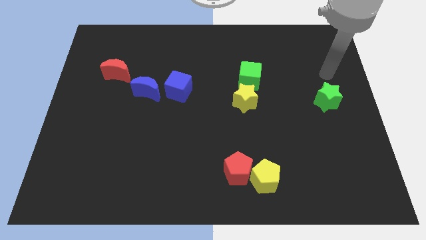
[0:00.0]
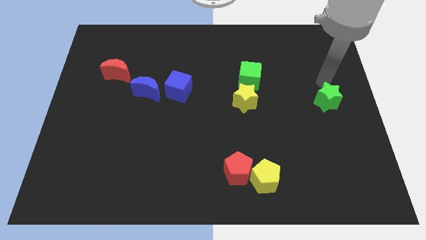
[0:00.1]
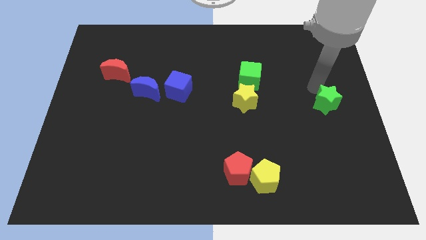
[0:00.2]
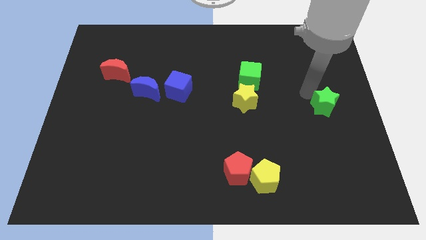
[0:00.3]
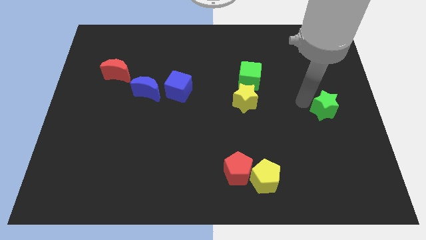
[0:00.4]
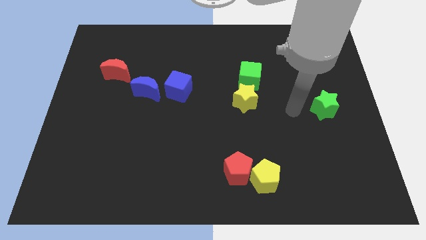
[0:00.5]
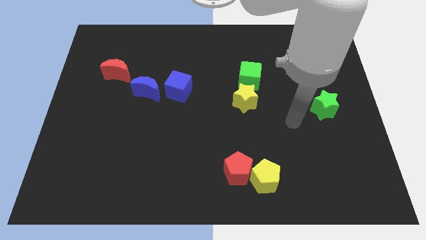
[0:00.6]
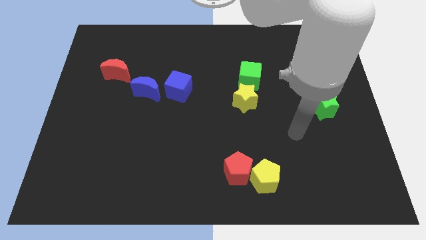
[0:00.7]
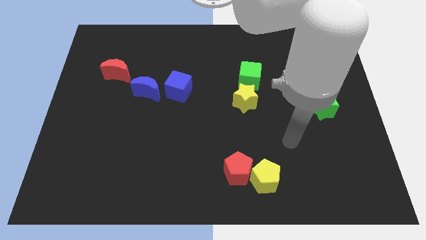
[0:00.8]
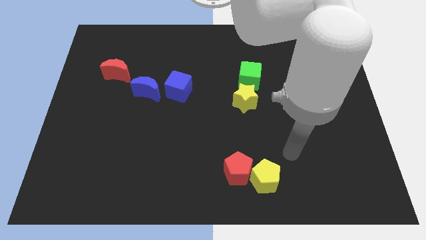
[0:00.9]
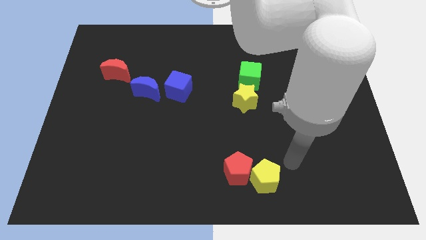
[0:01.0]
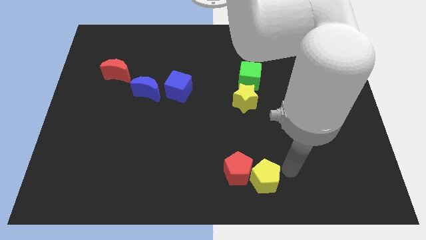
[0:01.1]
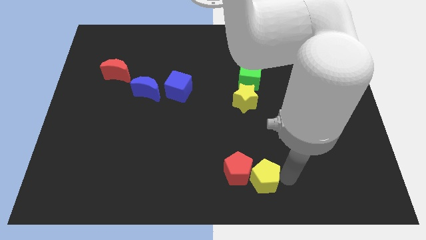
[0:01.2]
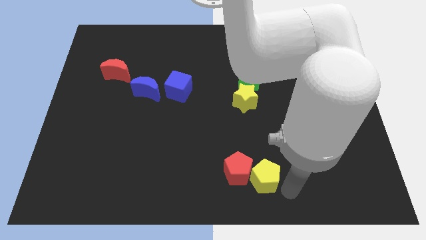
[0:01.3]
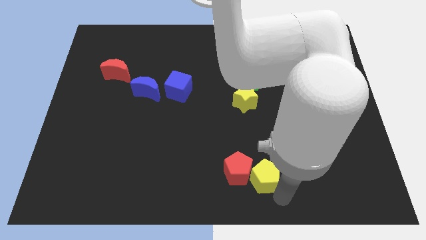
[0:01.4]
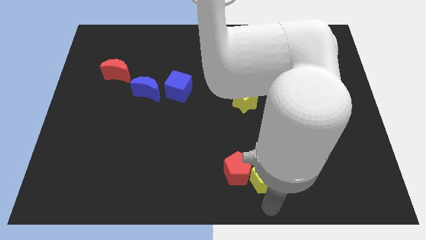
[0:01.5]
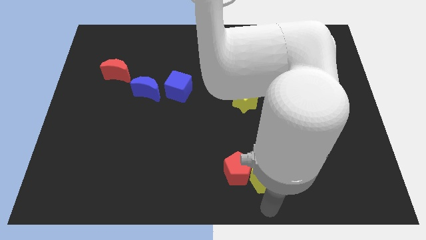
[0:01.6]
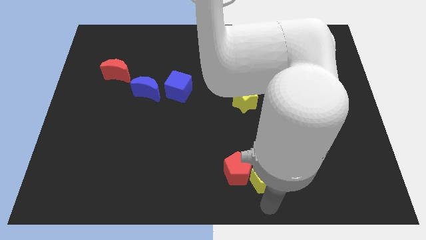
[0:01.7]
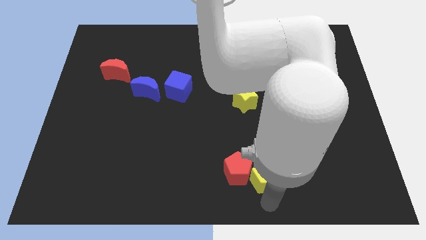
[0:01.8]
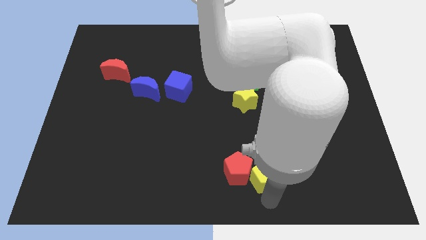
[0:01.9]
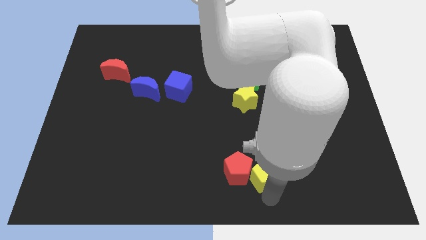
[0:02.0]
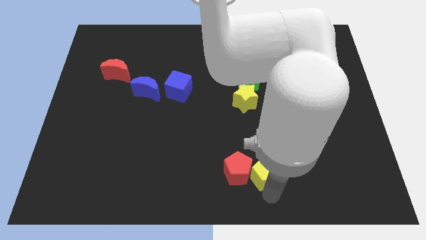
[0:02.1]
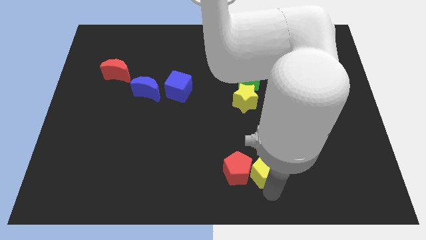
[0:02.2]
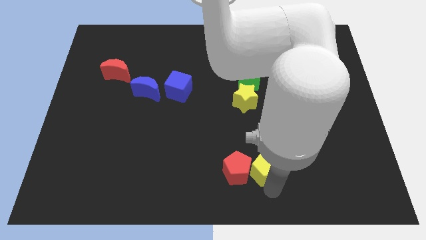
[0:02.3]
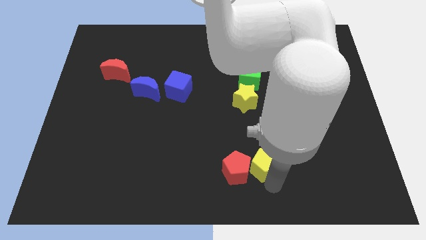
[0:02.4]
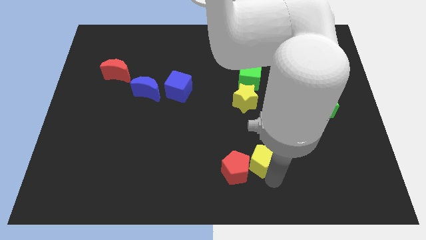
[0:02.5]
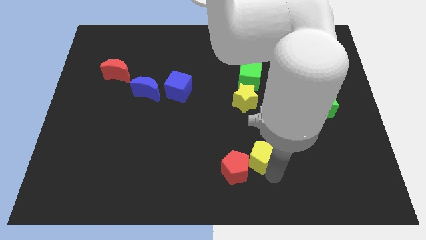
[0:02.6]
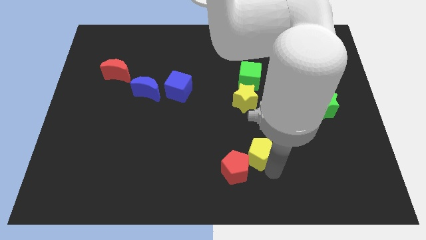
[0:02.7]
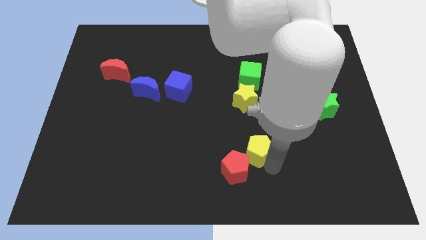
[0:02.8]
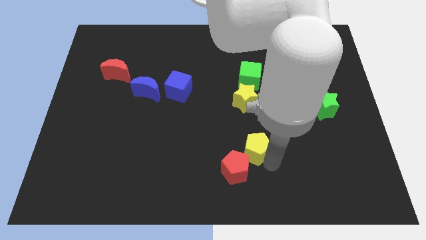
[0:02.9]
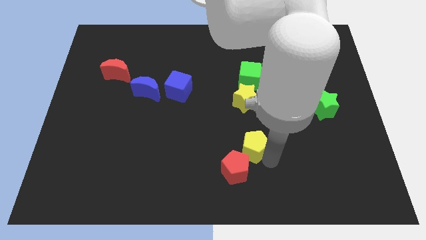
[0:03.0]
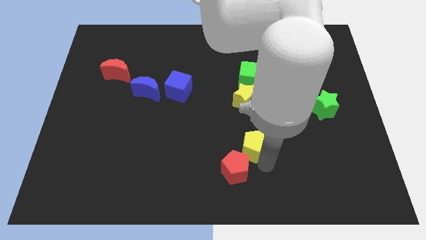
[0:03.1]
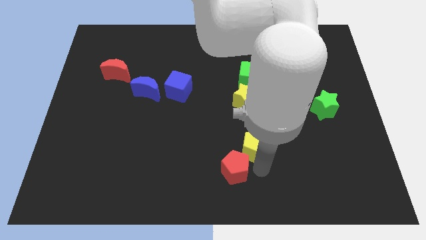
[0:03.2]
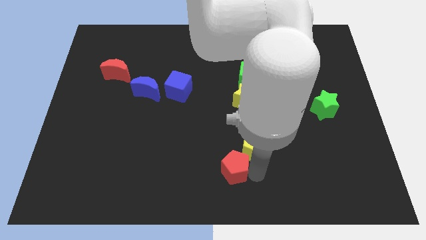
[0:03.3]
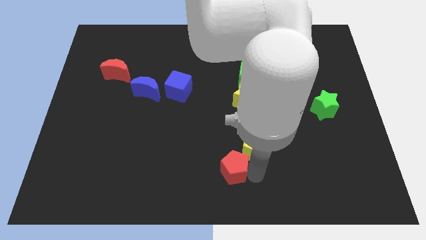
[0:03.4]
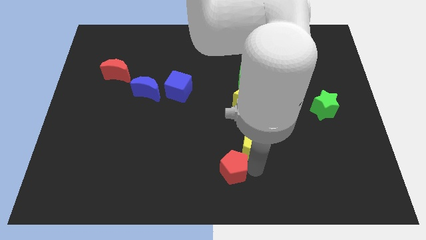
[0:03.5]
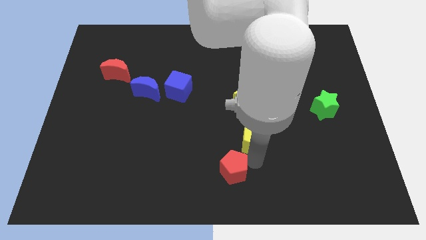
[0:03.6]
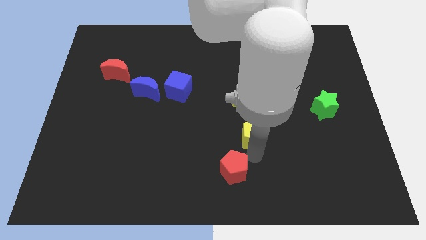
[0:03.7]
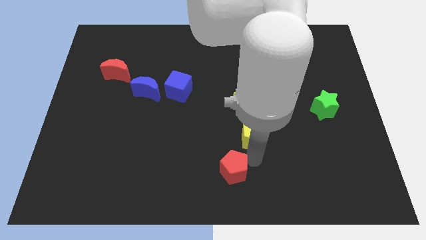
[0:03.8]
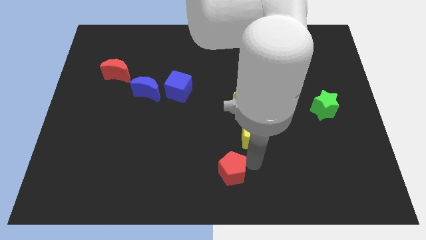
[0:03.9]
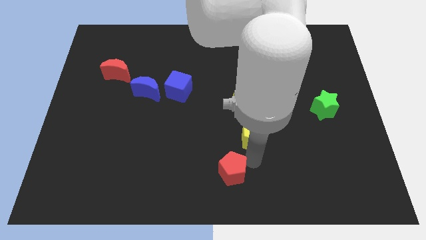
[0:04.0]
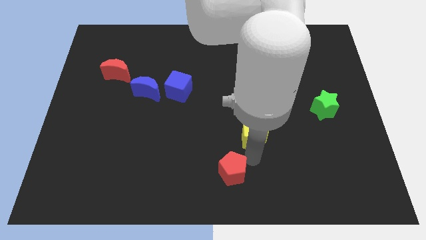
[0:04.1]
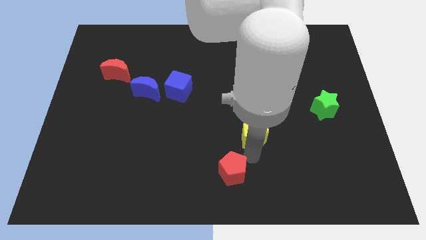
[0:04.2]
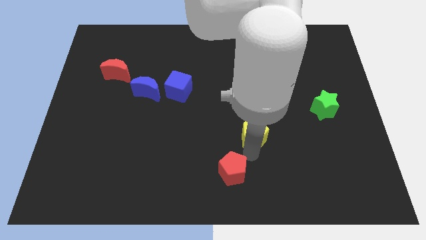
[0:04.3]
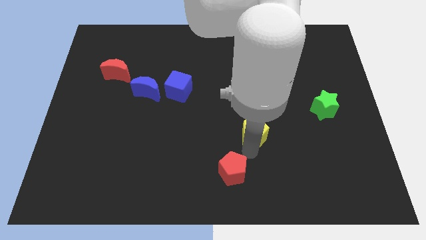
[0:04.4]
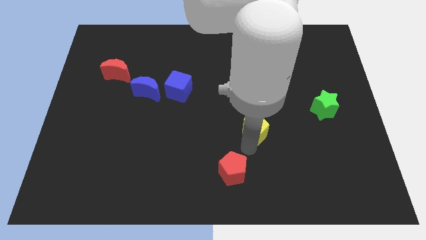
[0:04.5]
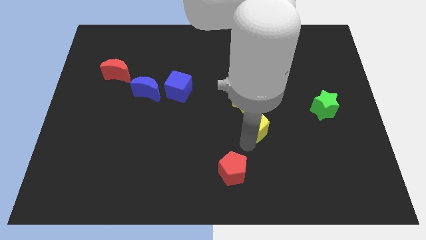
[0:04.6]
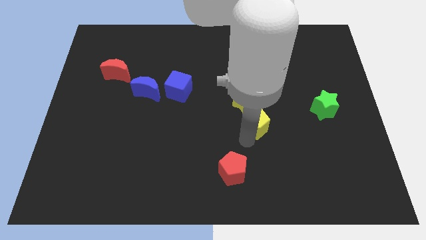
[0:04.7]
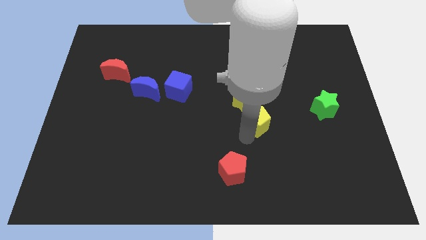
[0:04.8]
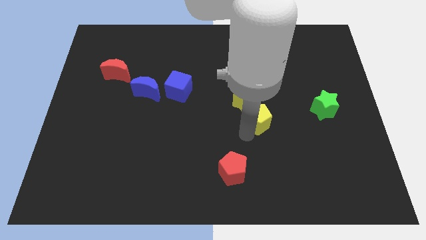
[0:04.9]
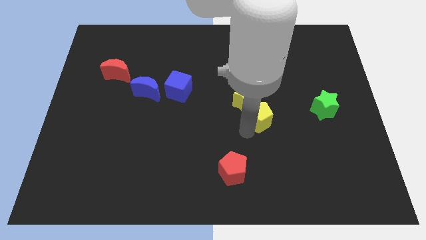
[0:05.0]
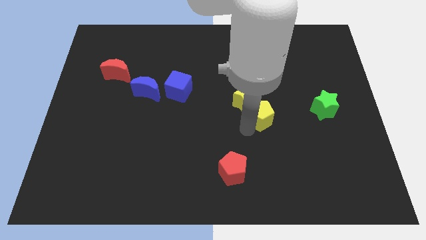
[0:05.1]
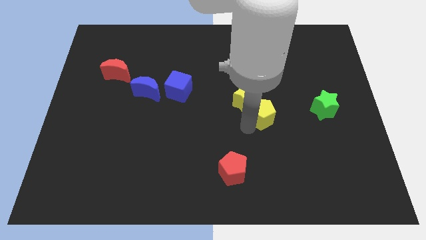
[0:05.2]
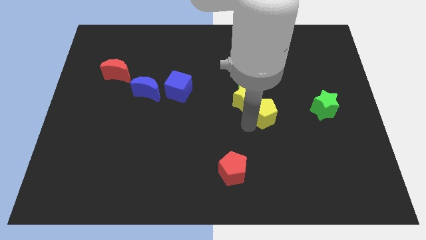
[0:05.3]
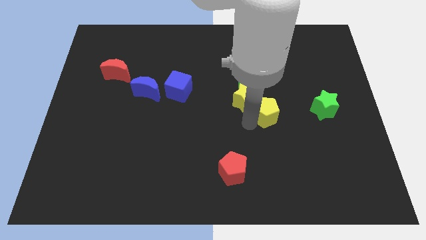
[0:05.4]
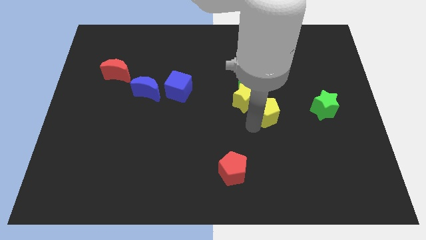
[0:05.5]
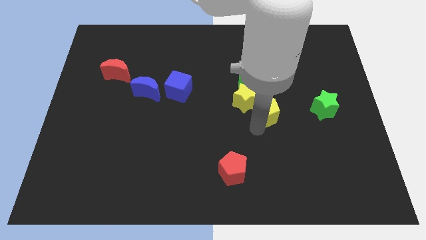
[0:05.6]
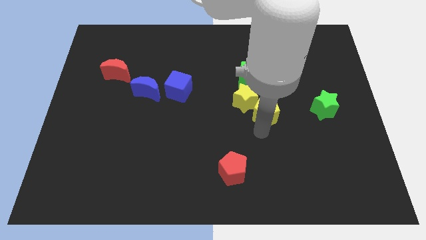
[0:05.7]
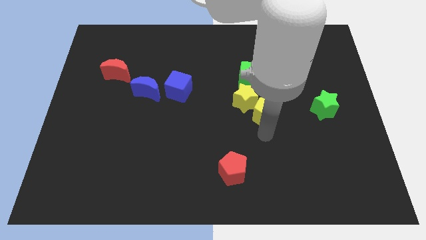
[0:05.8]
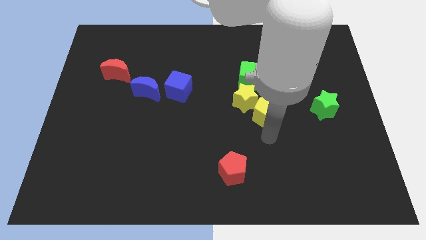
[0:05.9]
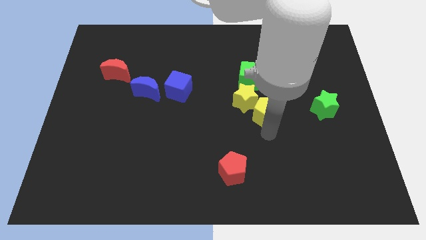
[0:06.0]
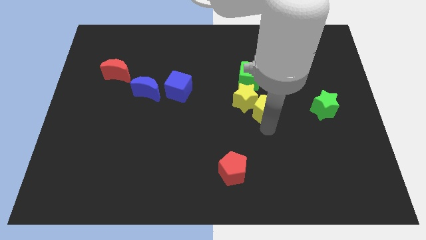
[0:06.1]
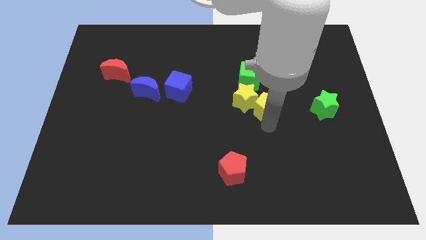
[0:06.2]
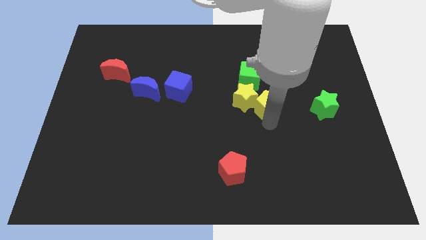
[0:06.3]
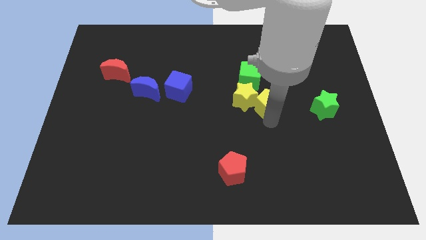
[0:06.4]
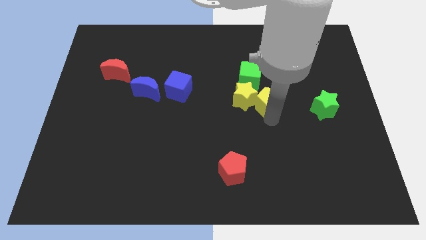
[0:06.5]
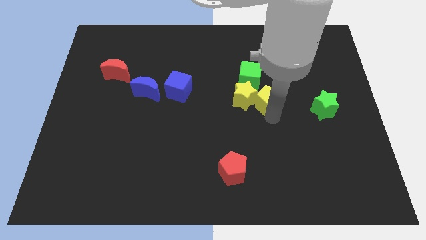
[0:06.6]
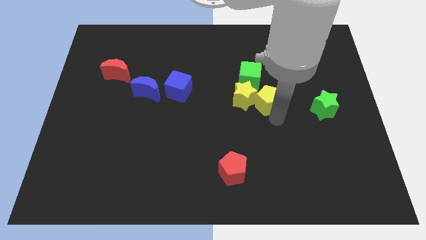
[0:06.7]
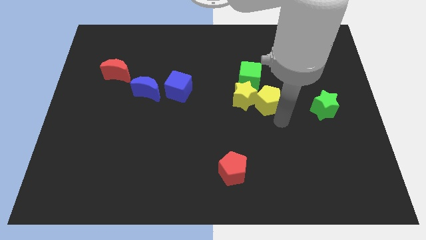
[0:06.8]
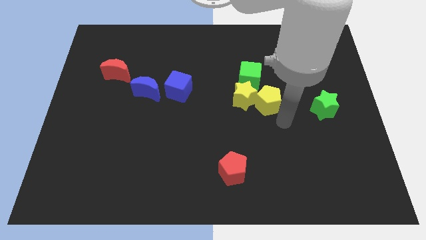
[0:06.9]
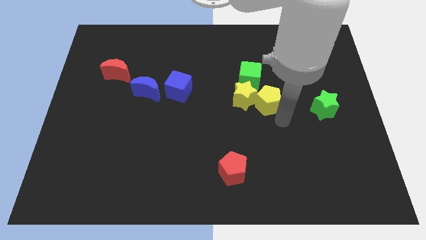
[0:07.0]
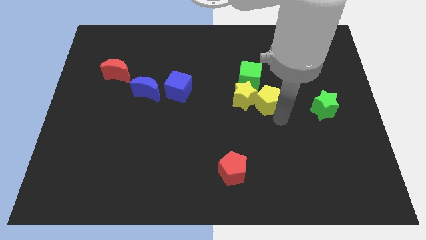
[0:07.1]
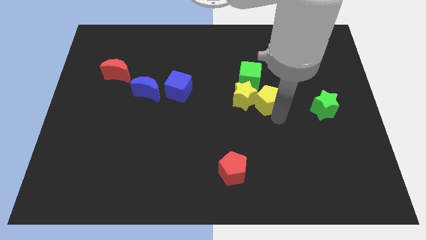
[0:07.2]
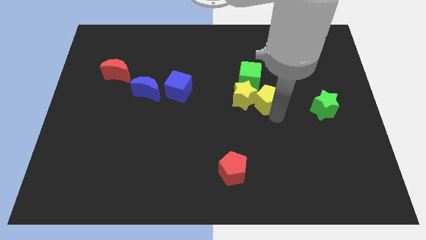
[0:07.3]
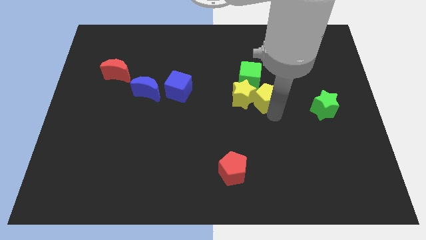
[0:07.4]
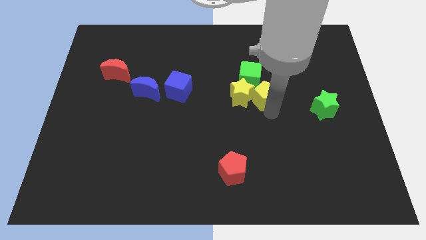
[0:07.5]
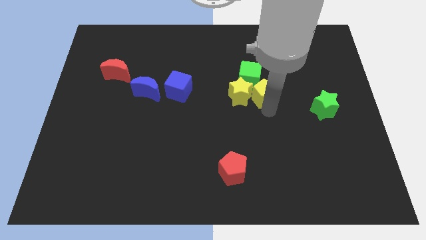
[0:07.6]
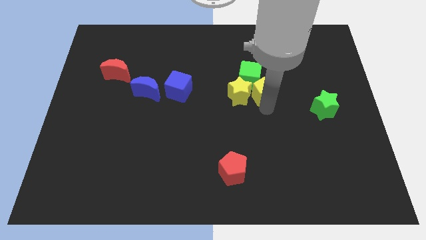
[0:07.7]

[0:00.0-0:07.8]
move the yellow pentagon next to the green cube
